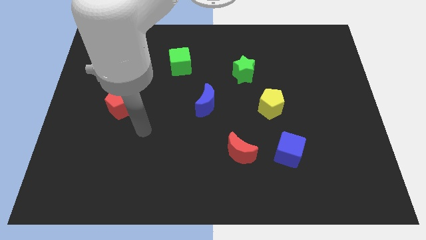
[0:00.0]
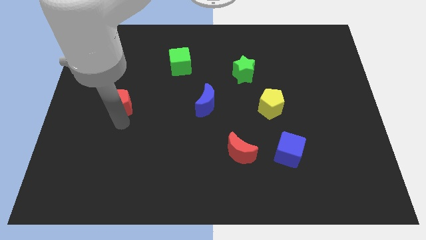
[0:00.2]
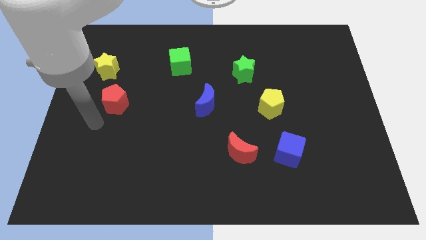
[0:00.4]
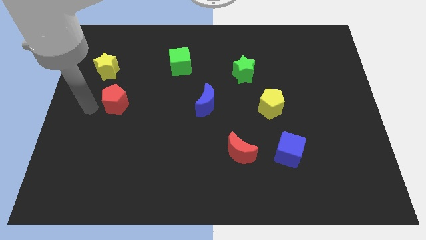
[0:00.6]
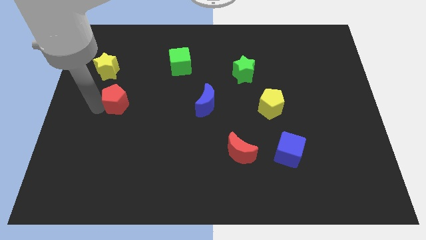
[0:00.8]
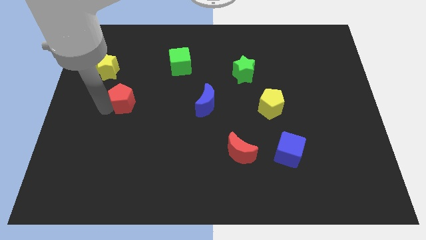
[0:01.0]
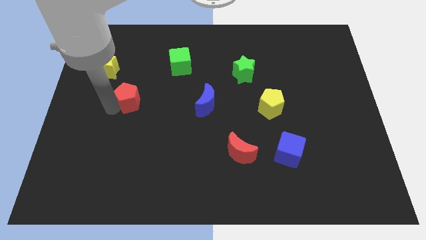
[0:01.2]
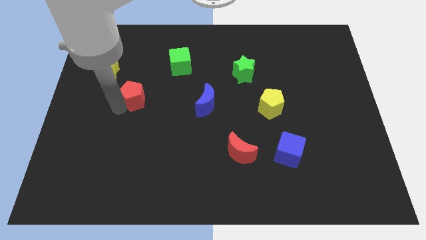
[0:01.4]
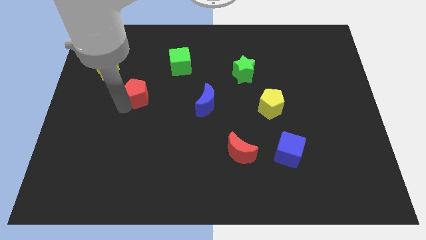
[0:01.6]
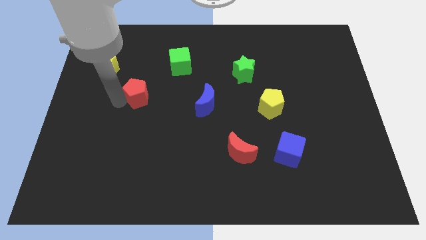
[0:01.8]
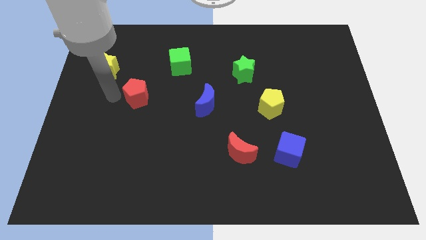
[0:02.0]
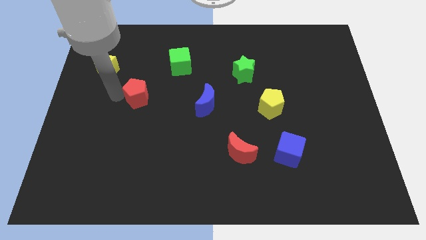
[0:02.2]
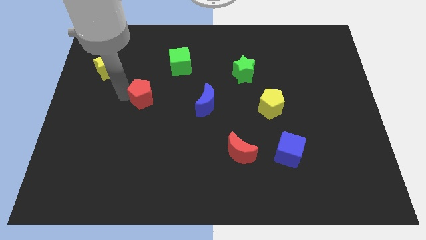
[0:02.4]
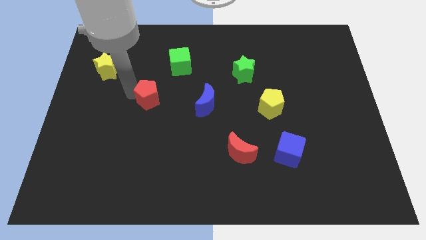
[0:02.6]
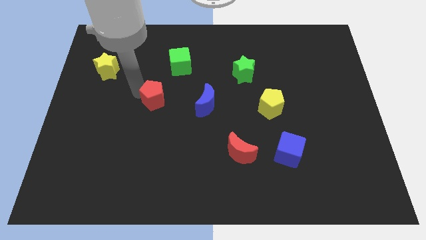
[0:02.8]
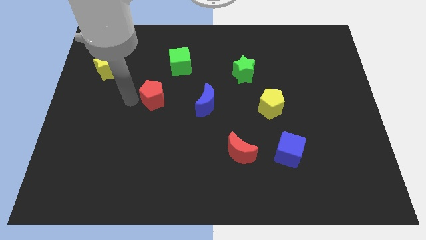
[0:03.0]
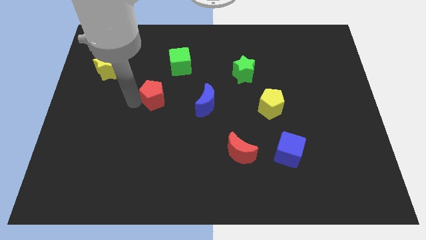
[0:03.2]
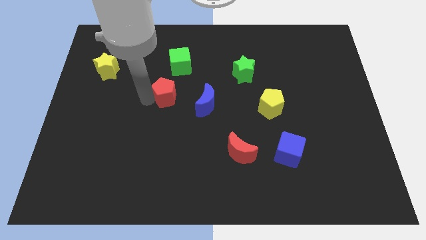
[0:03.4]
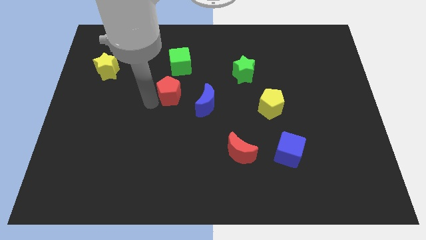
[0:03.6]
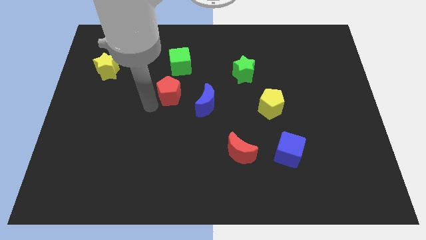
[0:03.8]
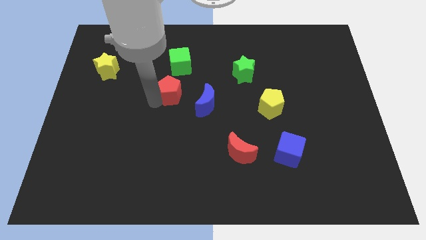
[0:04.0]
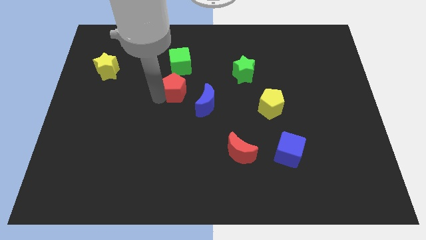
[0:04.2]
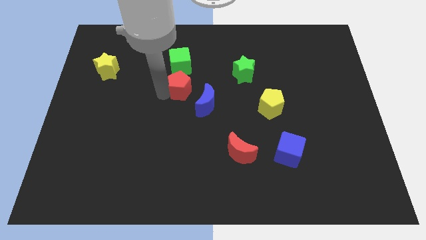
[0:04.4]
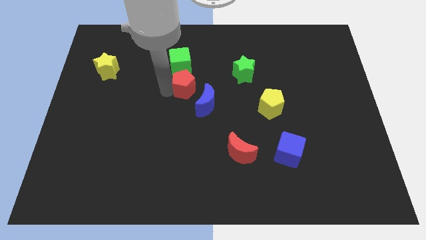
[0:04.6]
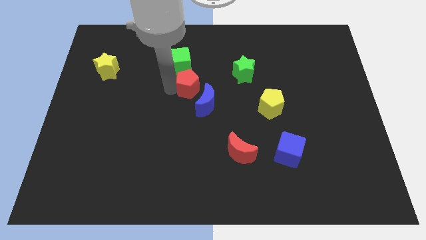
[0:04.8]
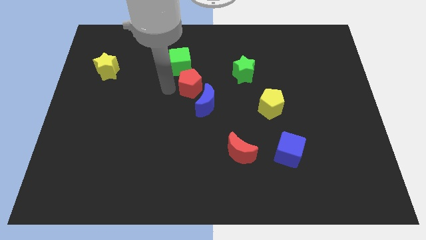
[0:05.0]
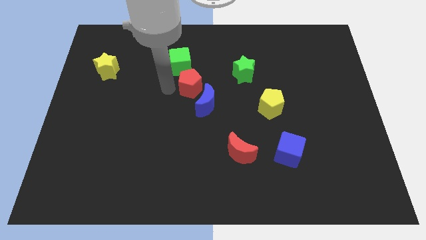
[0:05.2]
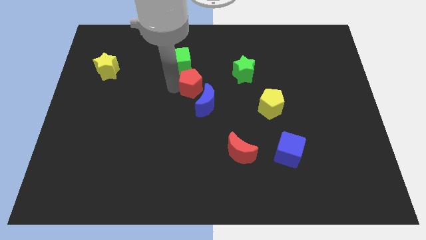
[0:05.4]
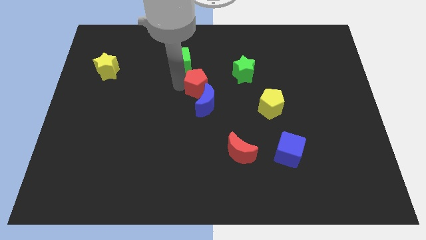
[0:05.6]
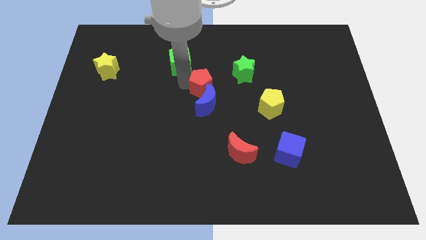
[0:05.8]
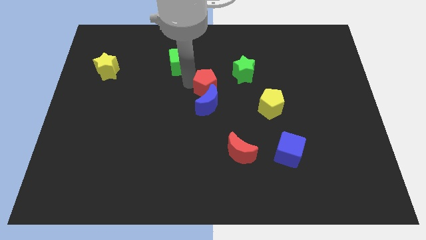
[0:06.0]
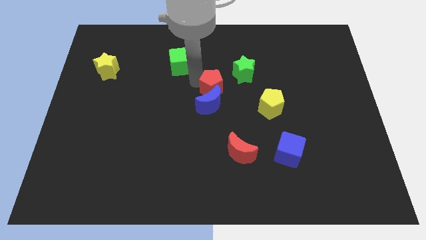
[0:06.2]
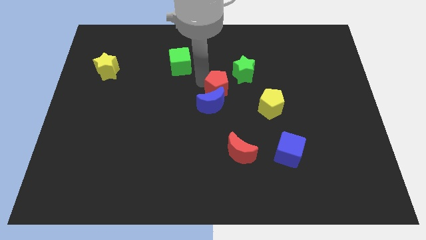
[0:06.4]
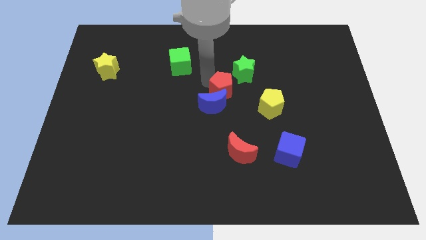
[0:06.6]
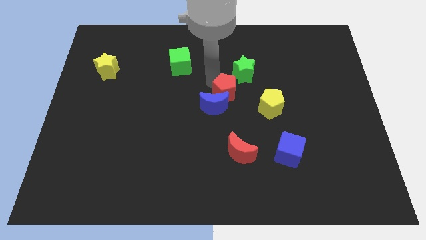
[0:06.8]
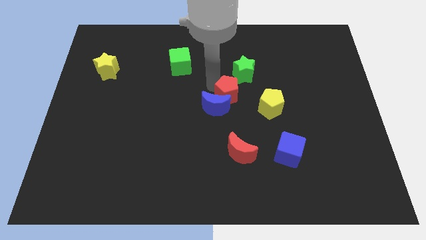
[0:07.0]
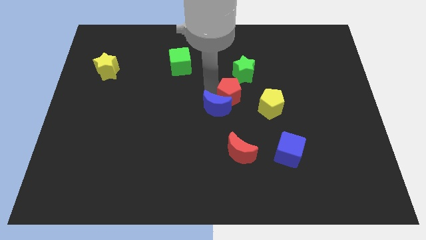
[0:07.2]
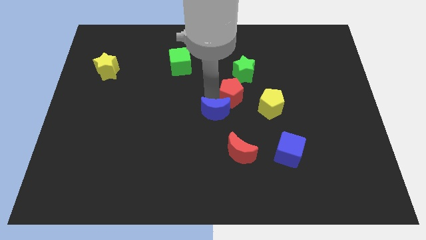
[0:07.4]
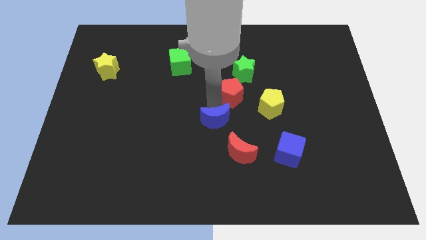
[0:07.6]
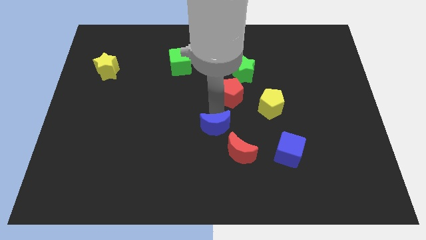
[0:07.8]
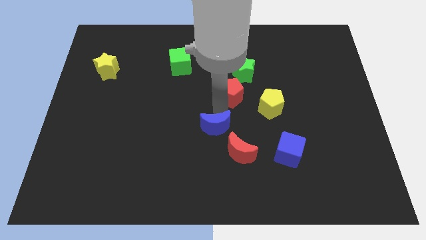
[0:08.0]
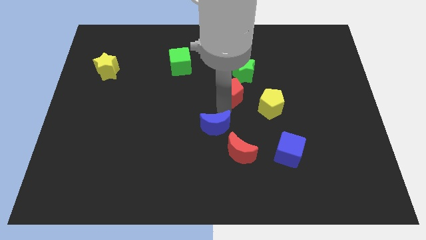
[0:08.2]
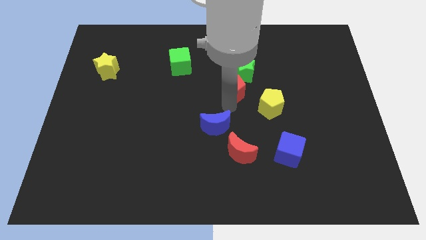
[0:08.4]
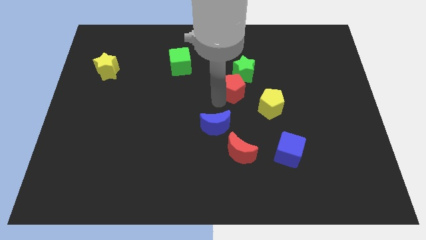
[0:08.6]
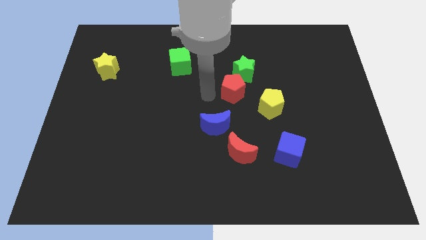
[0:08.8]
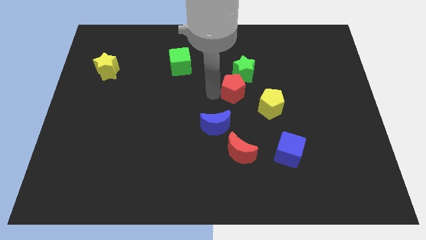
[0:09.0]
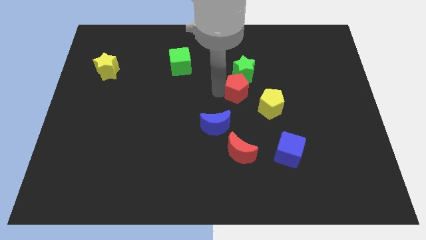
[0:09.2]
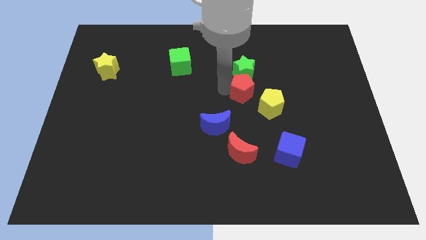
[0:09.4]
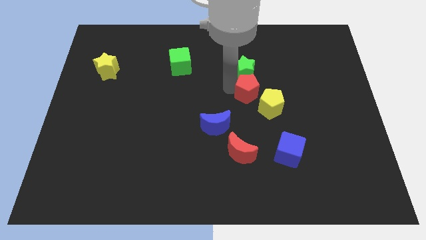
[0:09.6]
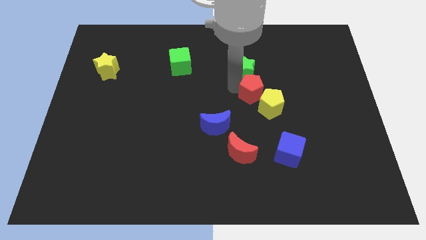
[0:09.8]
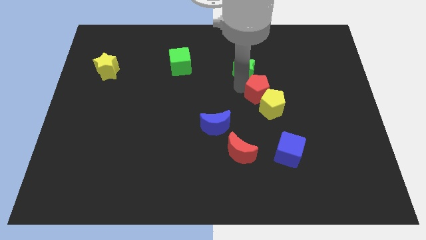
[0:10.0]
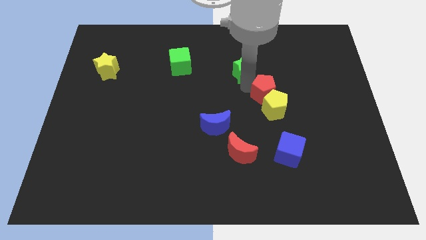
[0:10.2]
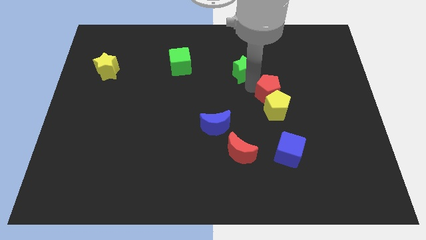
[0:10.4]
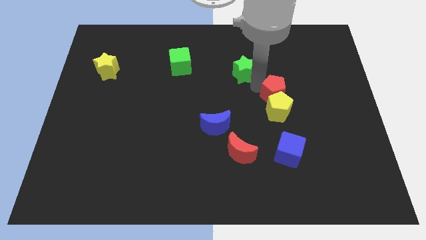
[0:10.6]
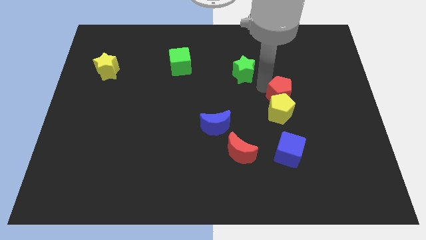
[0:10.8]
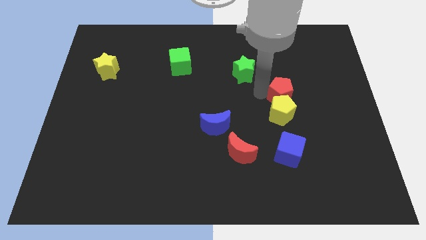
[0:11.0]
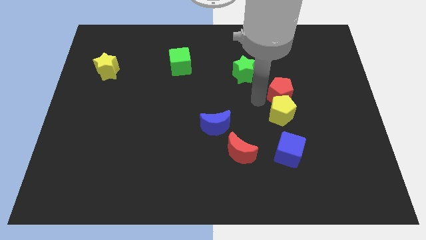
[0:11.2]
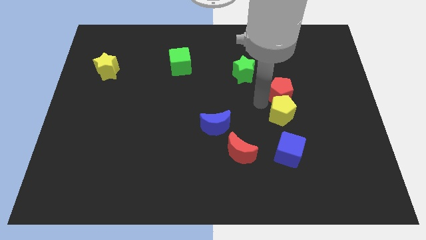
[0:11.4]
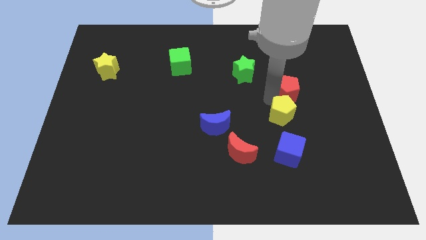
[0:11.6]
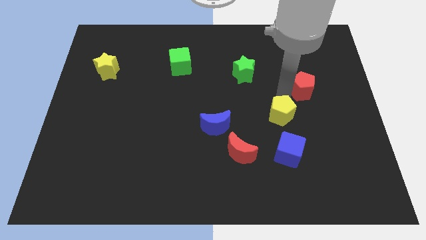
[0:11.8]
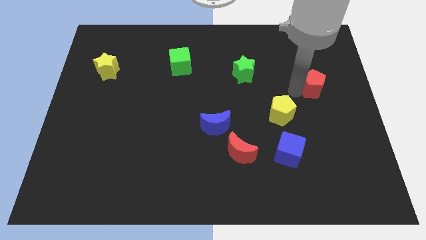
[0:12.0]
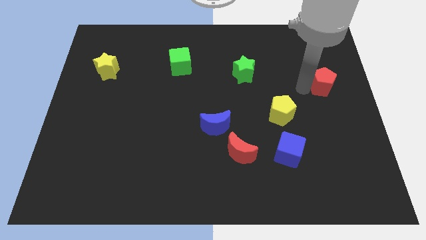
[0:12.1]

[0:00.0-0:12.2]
push the red pentagon to the right side of the board
